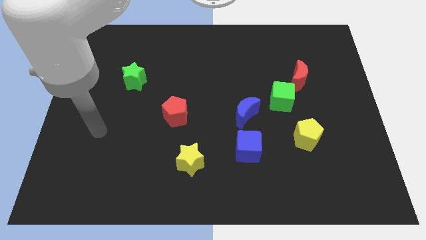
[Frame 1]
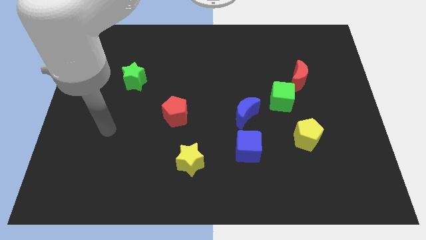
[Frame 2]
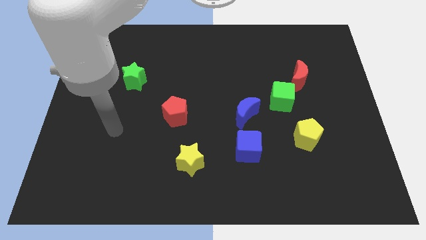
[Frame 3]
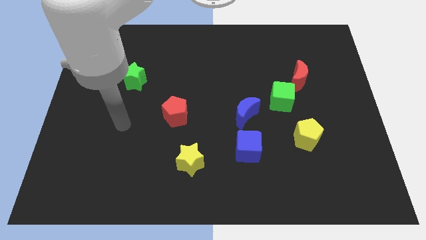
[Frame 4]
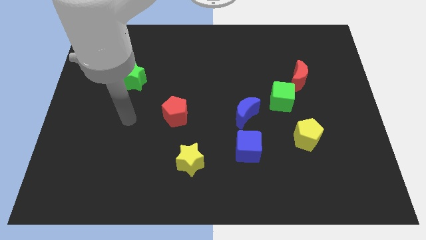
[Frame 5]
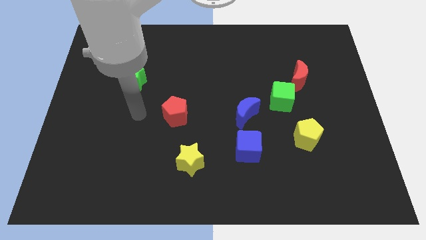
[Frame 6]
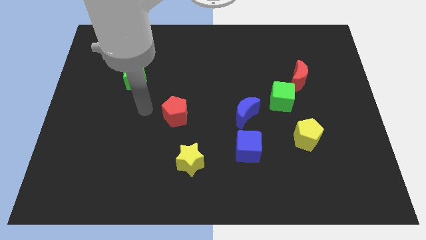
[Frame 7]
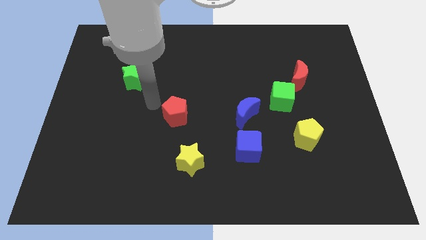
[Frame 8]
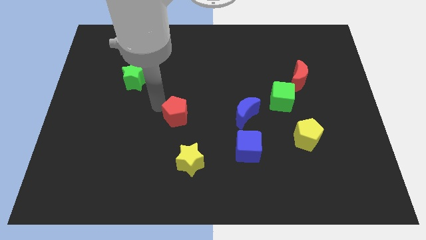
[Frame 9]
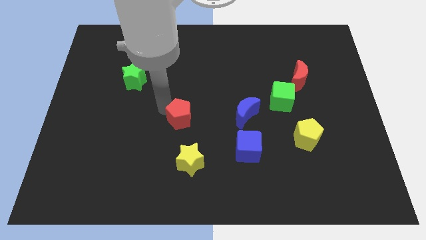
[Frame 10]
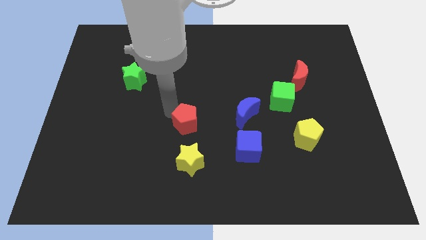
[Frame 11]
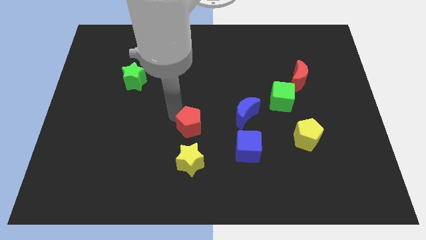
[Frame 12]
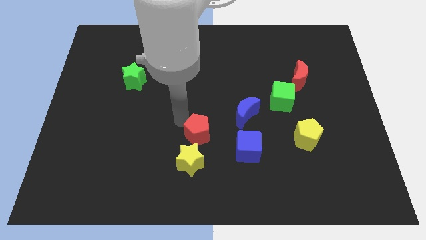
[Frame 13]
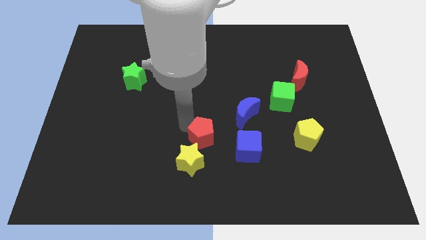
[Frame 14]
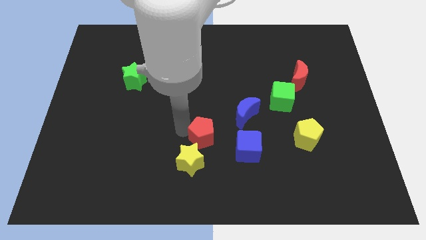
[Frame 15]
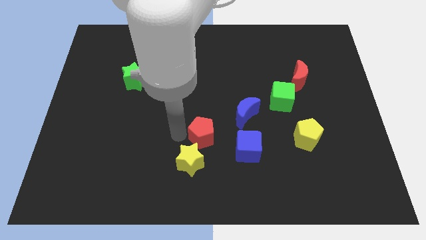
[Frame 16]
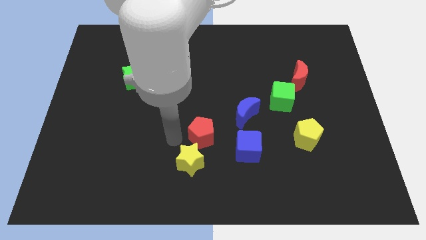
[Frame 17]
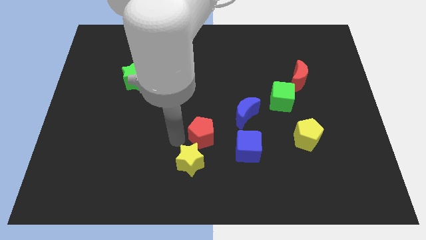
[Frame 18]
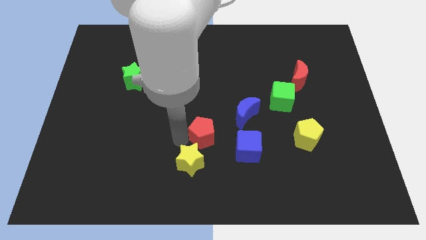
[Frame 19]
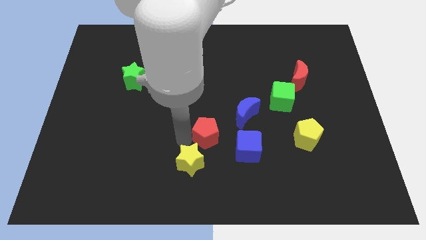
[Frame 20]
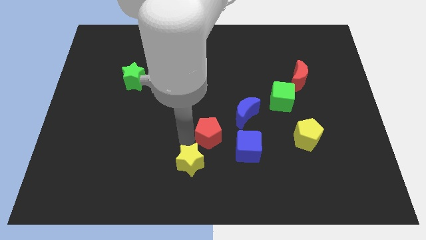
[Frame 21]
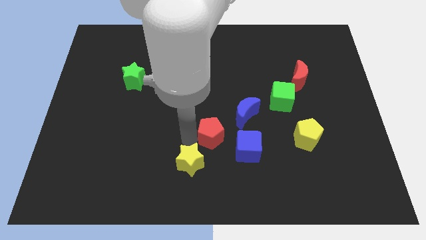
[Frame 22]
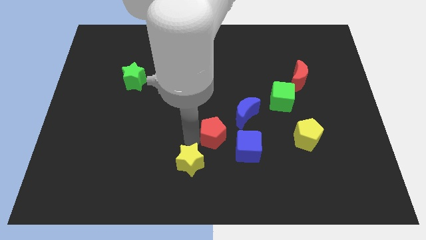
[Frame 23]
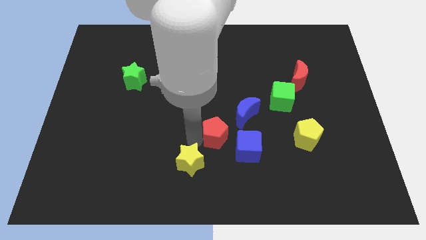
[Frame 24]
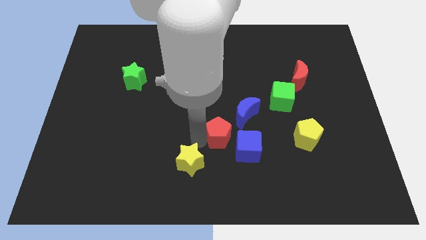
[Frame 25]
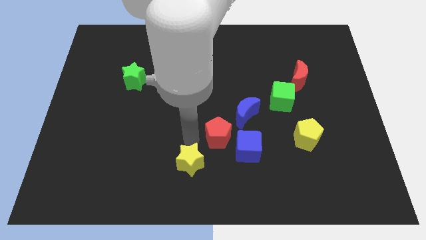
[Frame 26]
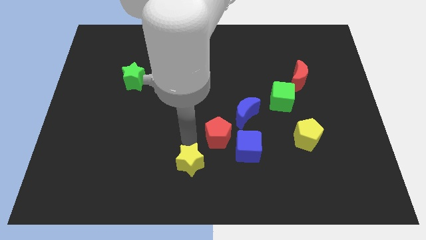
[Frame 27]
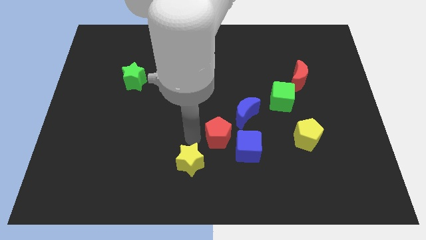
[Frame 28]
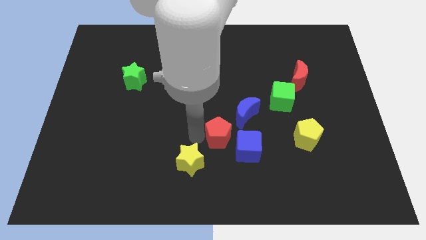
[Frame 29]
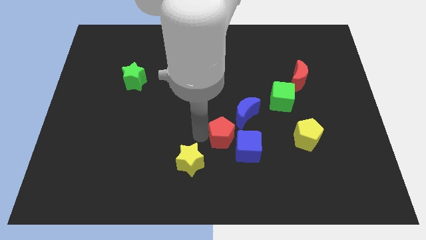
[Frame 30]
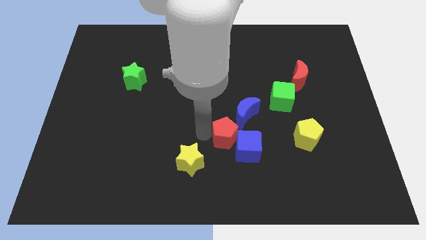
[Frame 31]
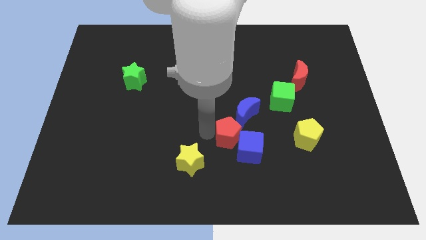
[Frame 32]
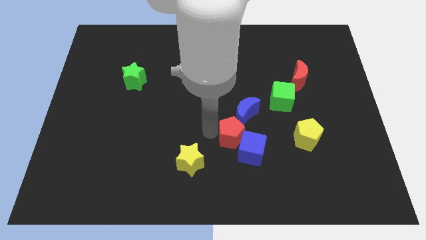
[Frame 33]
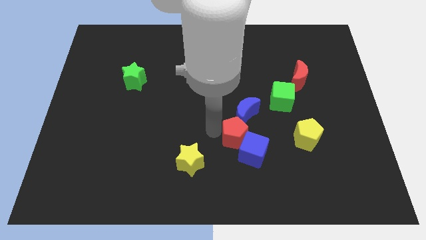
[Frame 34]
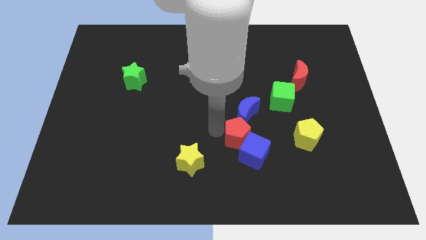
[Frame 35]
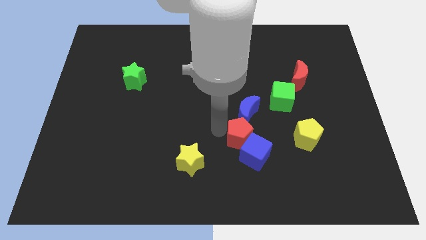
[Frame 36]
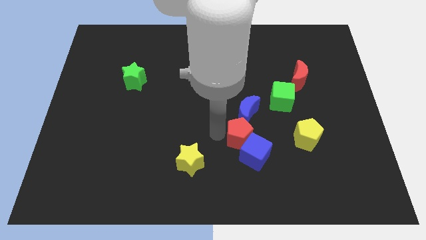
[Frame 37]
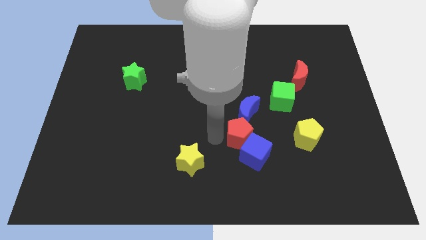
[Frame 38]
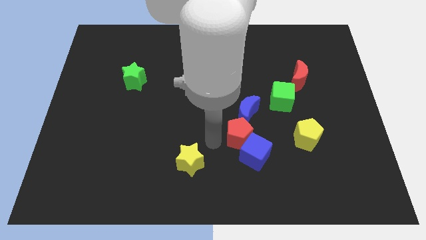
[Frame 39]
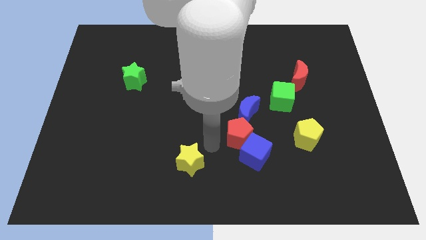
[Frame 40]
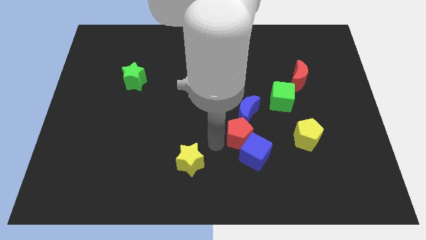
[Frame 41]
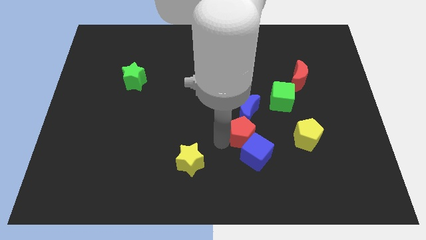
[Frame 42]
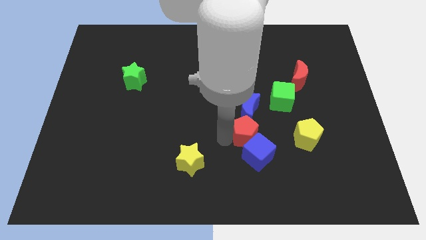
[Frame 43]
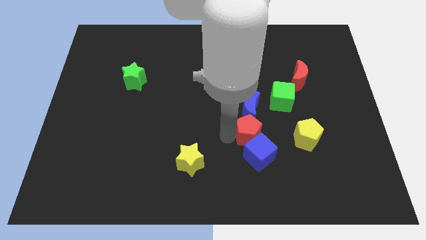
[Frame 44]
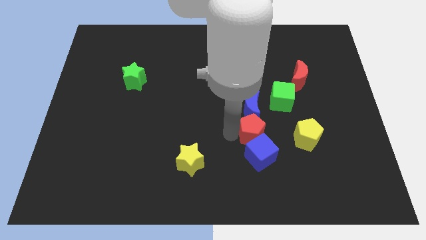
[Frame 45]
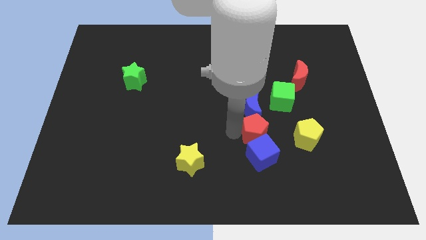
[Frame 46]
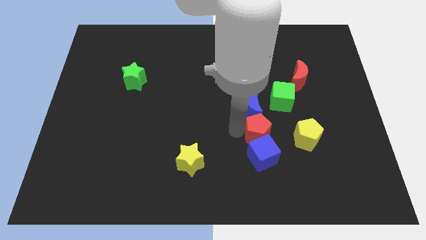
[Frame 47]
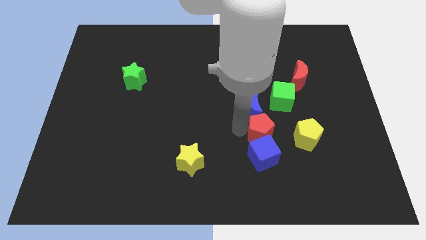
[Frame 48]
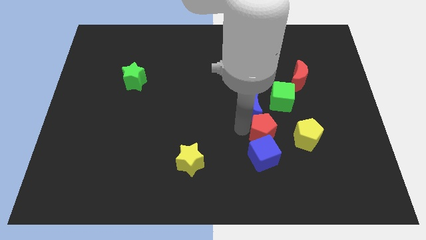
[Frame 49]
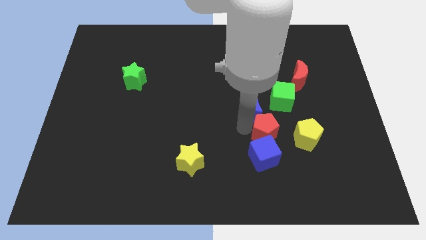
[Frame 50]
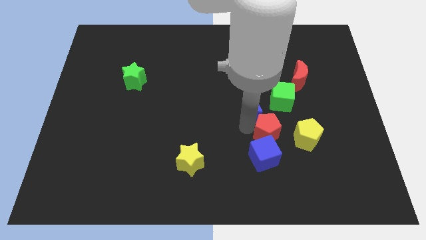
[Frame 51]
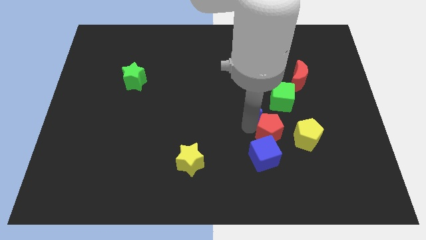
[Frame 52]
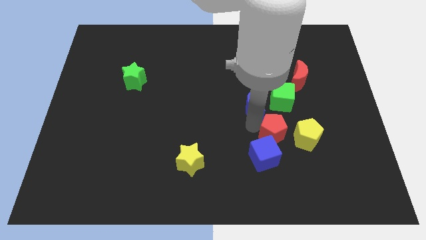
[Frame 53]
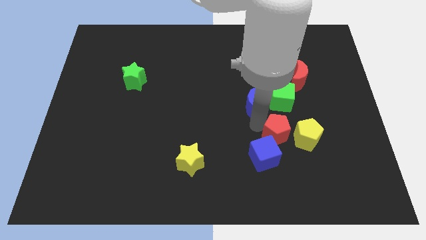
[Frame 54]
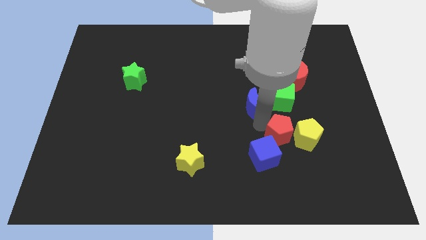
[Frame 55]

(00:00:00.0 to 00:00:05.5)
slide the red pentagon towards the yellow pentagon

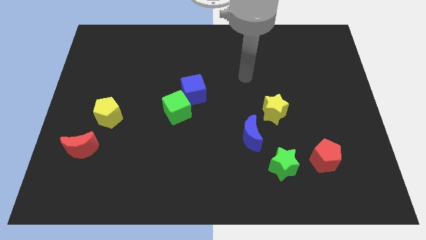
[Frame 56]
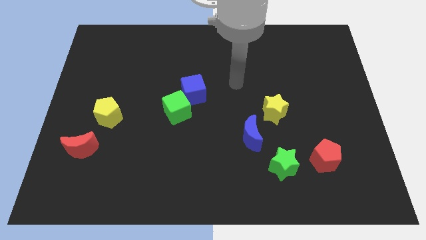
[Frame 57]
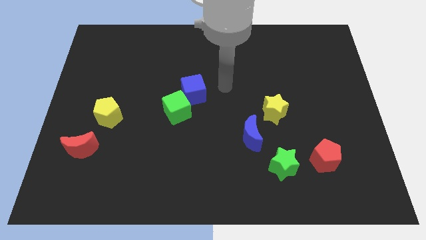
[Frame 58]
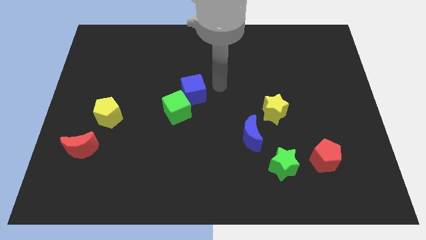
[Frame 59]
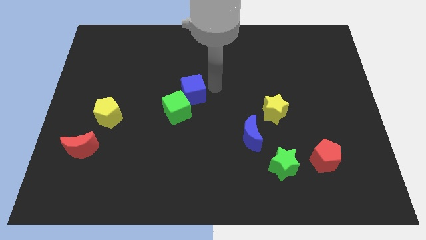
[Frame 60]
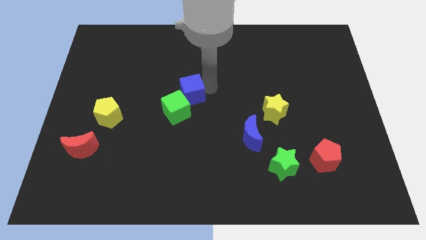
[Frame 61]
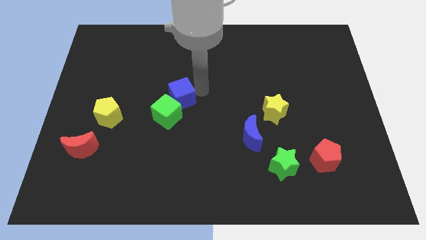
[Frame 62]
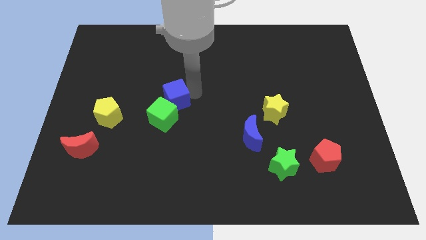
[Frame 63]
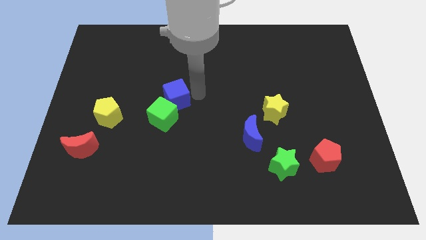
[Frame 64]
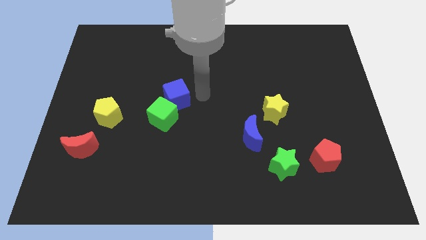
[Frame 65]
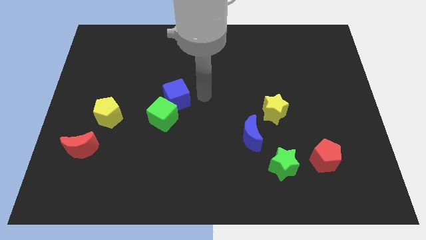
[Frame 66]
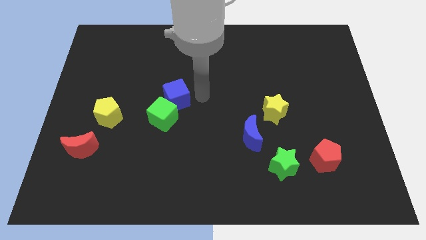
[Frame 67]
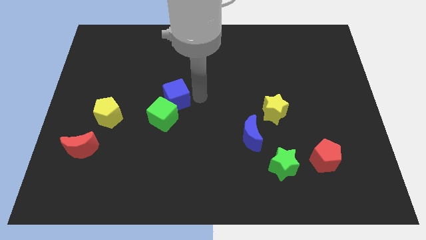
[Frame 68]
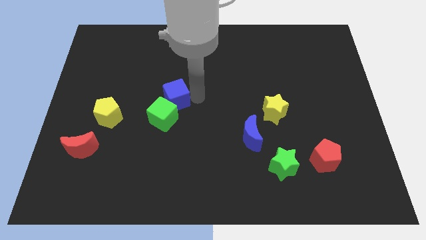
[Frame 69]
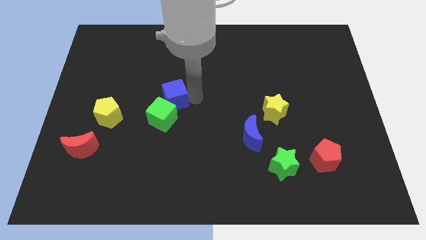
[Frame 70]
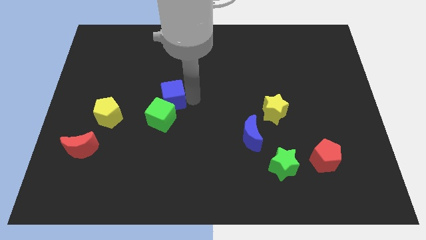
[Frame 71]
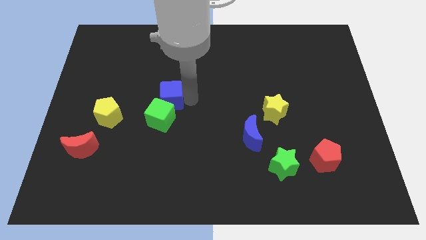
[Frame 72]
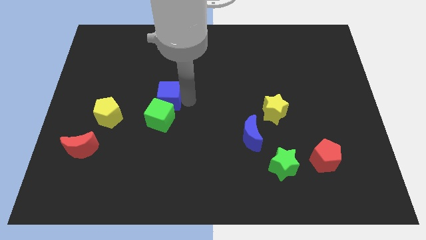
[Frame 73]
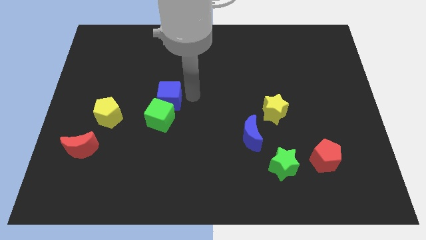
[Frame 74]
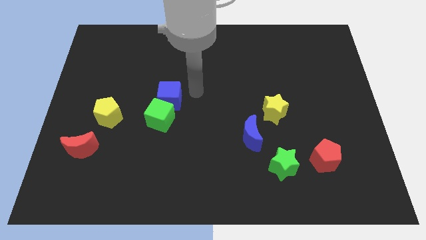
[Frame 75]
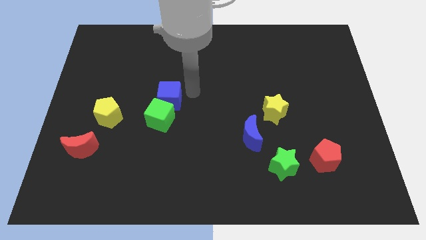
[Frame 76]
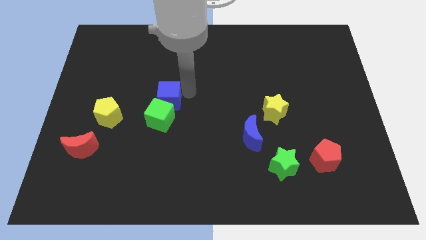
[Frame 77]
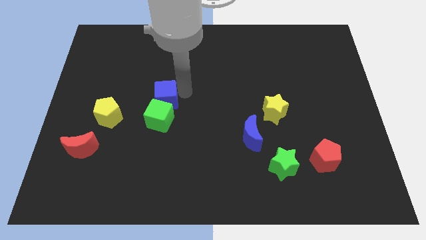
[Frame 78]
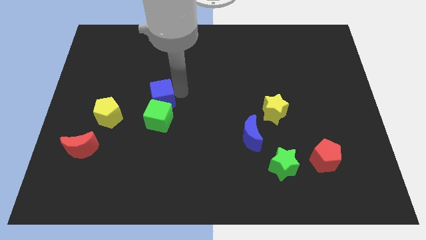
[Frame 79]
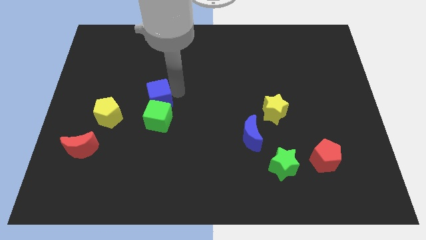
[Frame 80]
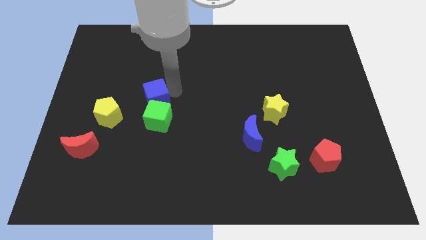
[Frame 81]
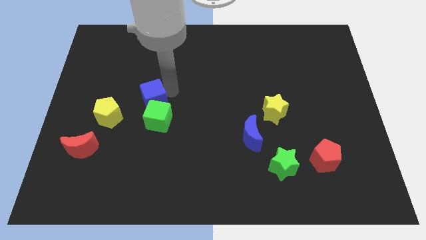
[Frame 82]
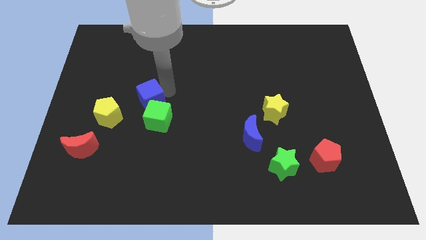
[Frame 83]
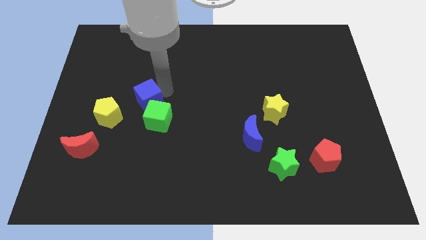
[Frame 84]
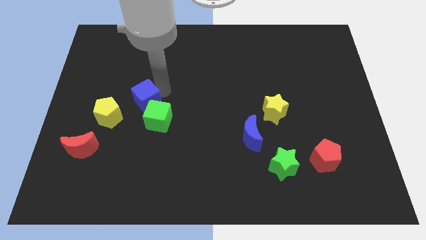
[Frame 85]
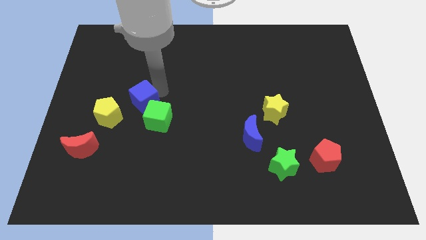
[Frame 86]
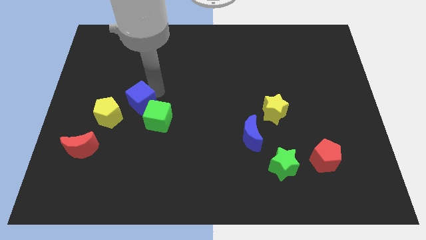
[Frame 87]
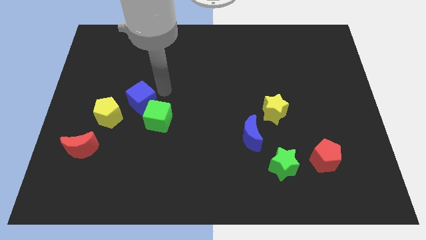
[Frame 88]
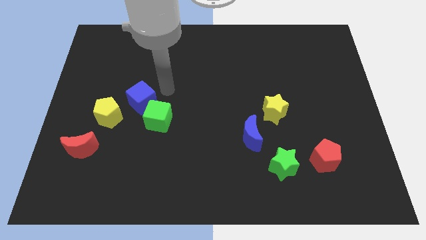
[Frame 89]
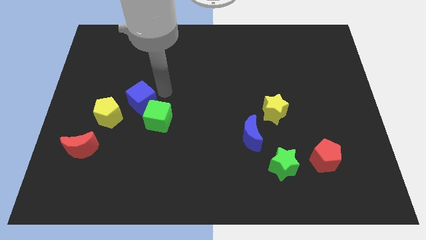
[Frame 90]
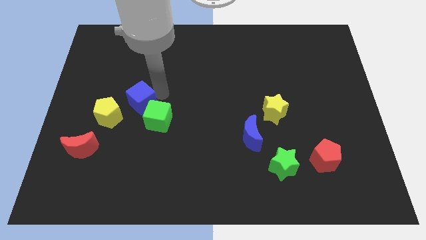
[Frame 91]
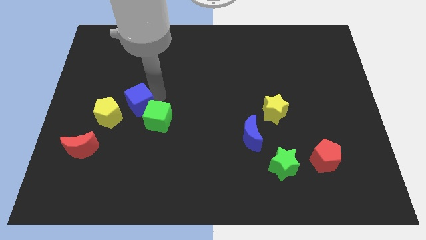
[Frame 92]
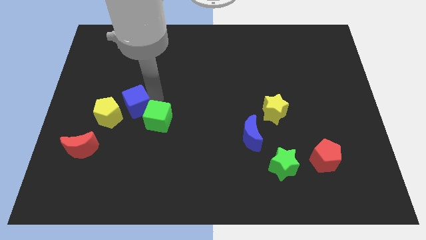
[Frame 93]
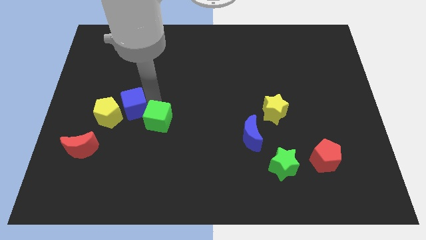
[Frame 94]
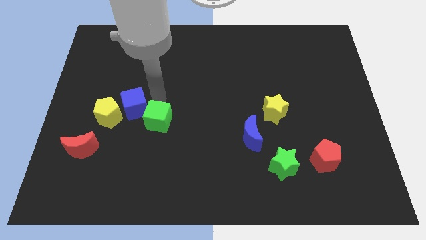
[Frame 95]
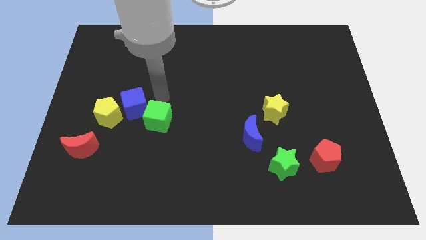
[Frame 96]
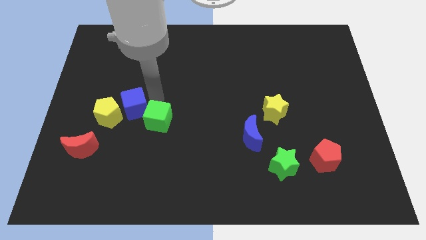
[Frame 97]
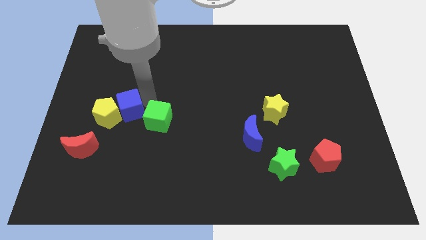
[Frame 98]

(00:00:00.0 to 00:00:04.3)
slide the blue cube to the yellow pentagon
